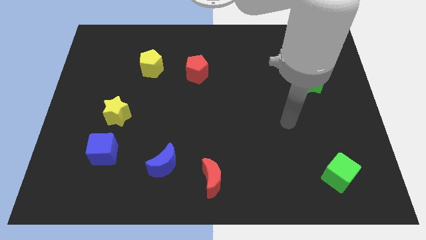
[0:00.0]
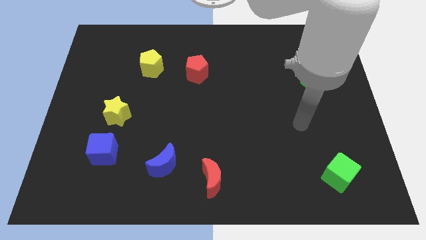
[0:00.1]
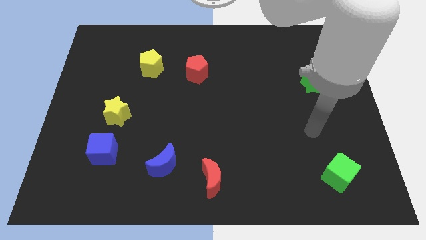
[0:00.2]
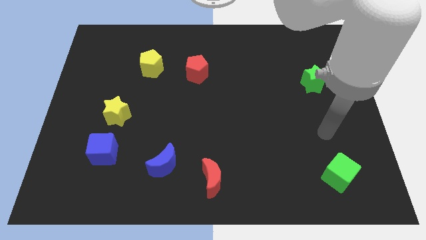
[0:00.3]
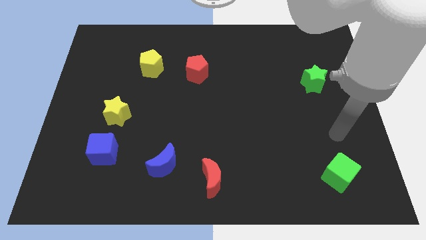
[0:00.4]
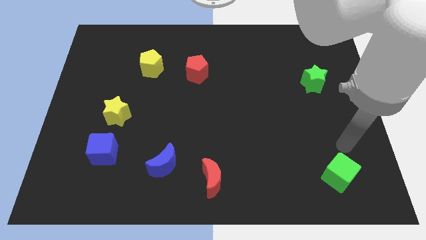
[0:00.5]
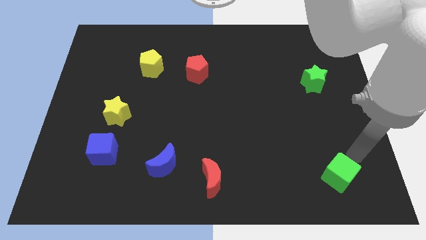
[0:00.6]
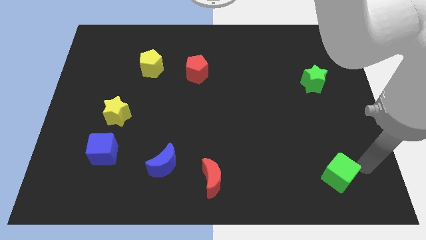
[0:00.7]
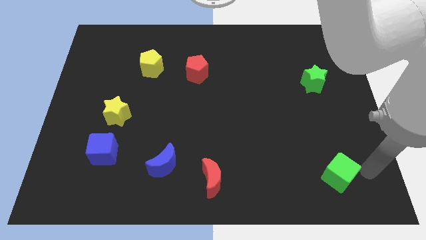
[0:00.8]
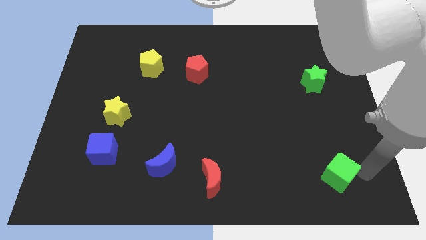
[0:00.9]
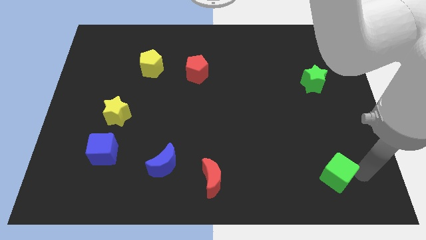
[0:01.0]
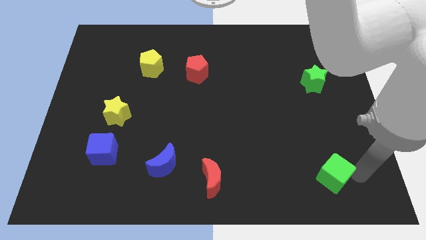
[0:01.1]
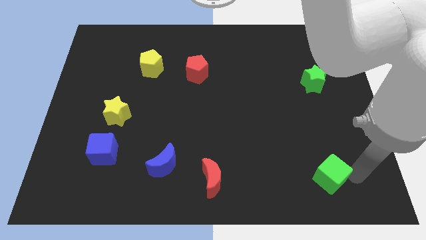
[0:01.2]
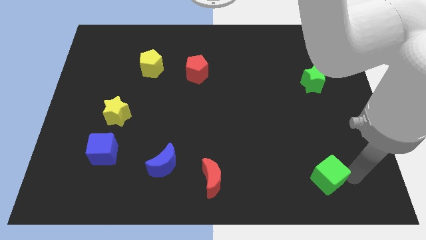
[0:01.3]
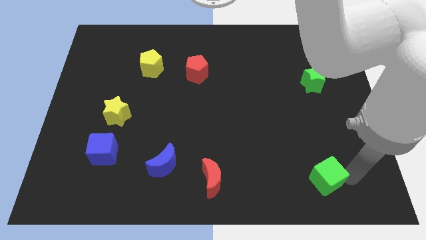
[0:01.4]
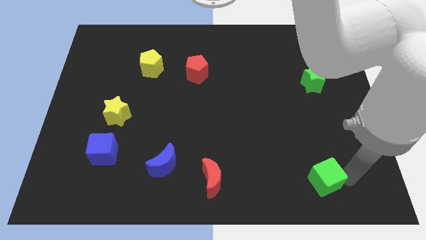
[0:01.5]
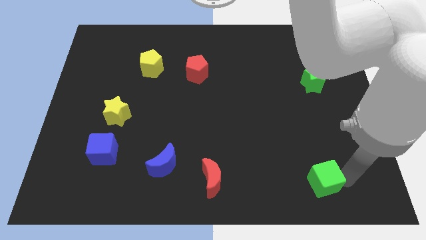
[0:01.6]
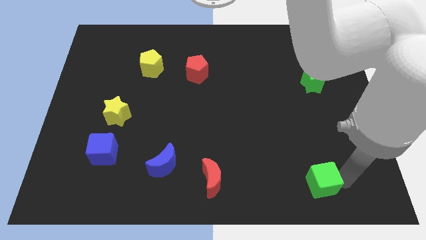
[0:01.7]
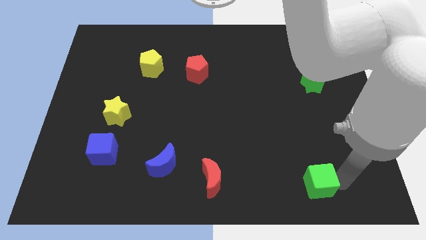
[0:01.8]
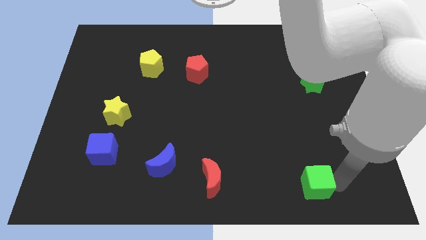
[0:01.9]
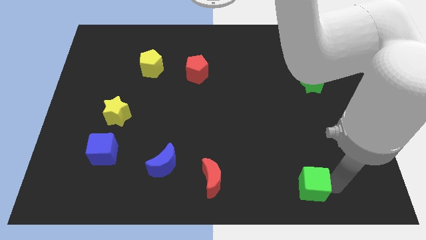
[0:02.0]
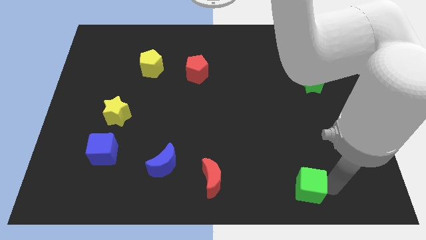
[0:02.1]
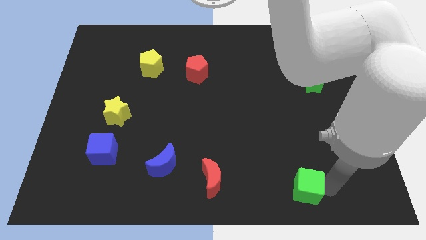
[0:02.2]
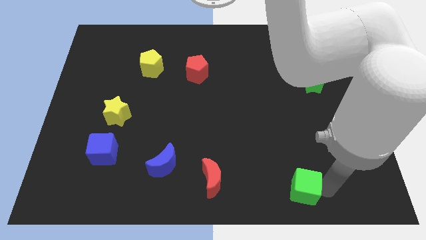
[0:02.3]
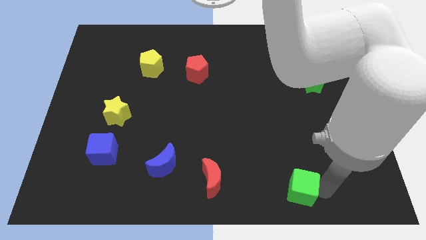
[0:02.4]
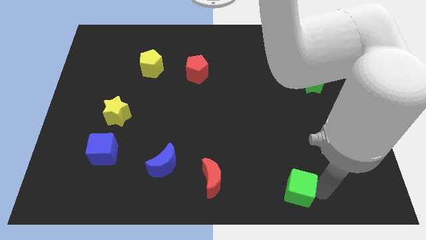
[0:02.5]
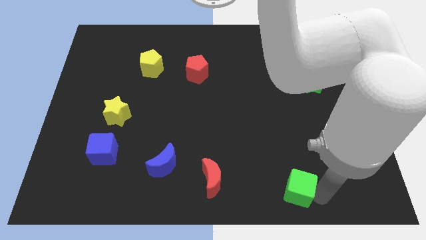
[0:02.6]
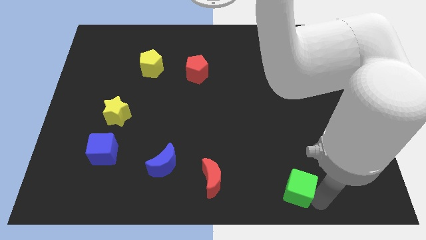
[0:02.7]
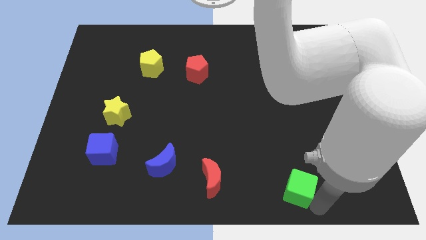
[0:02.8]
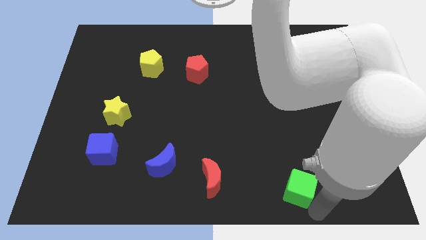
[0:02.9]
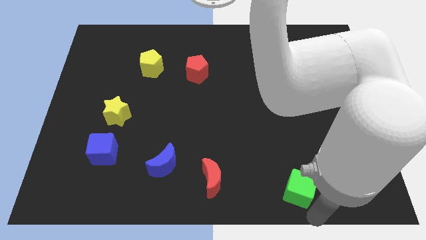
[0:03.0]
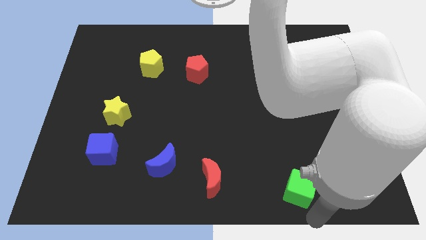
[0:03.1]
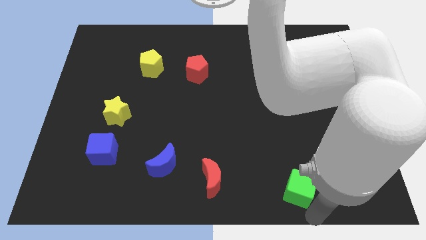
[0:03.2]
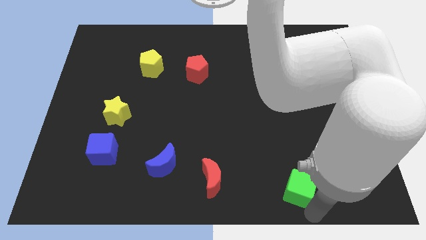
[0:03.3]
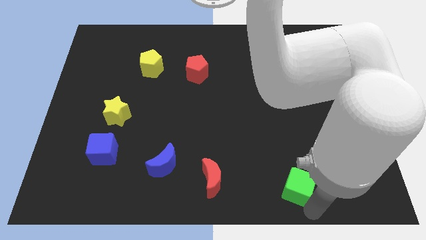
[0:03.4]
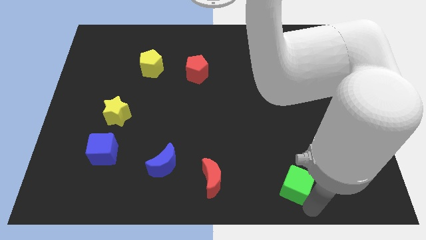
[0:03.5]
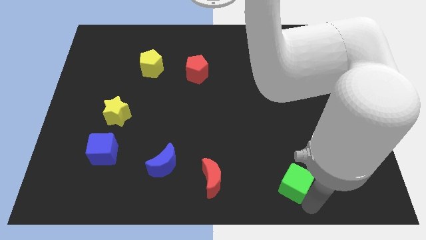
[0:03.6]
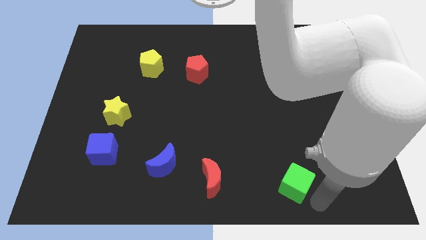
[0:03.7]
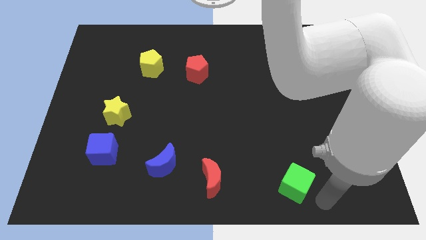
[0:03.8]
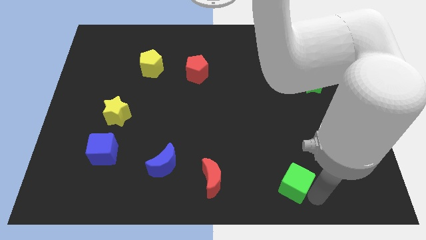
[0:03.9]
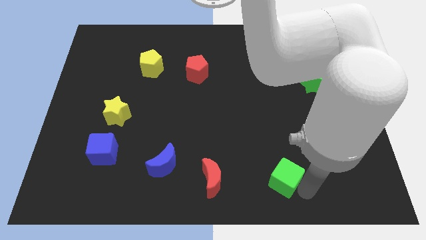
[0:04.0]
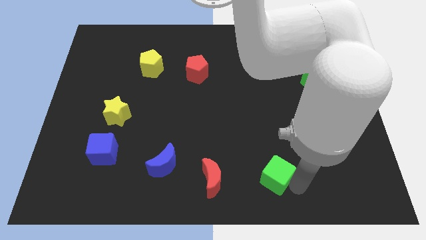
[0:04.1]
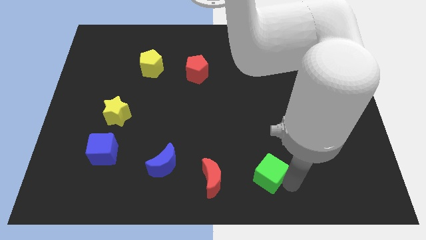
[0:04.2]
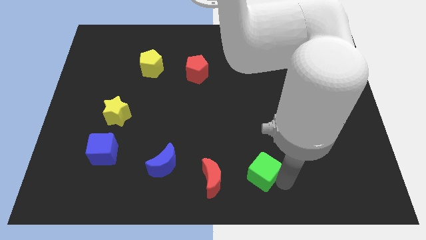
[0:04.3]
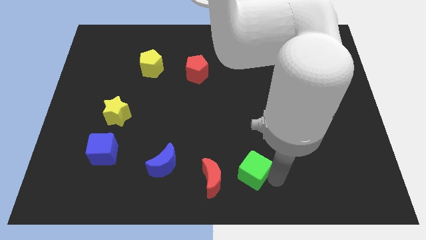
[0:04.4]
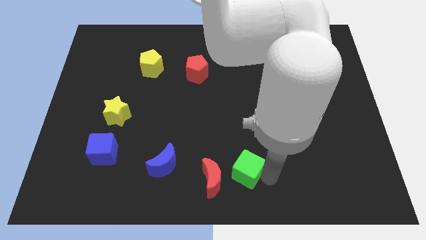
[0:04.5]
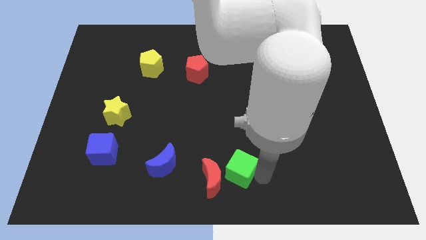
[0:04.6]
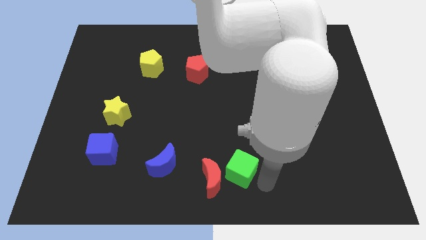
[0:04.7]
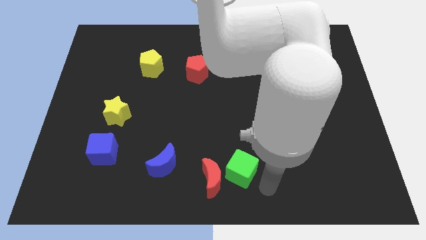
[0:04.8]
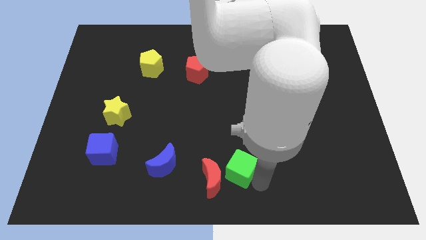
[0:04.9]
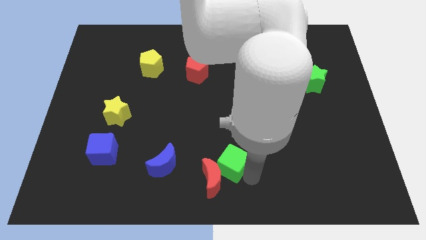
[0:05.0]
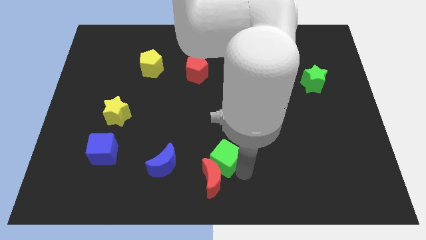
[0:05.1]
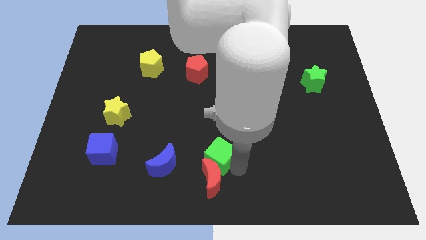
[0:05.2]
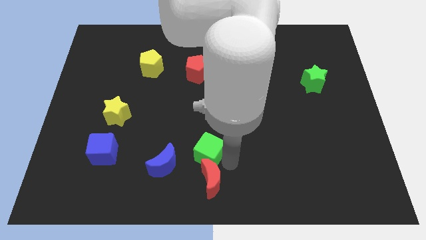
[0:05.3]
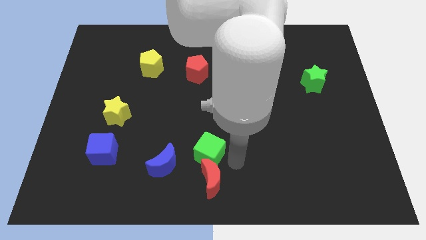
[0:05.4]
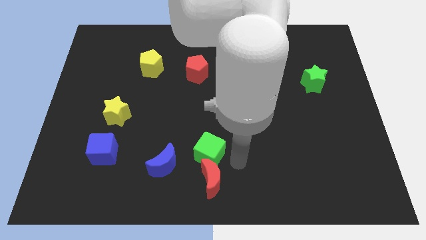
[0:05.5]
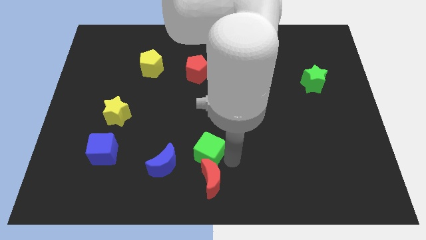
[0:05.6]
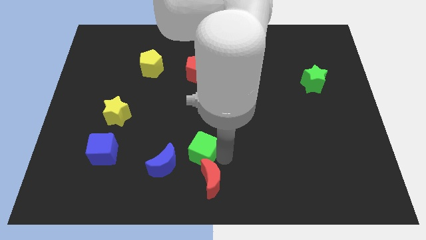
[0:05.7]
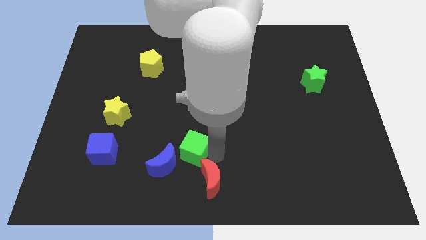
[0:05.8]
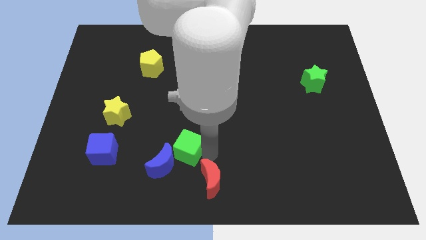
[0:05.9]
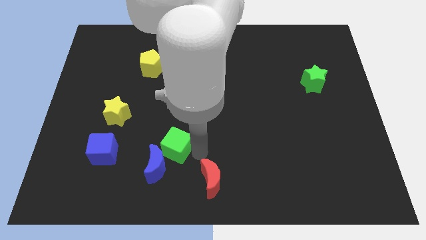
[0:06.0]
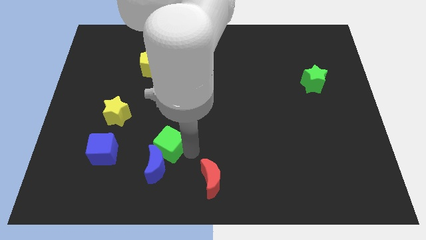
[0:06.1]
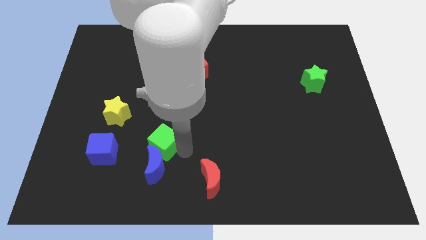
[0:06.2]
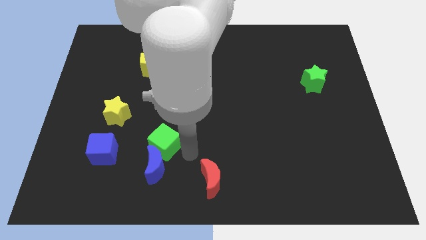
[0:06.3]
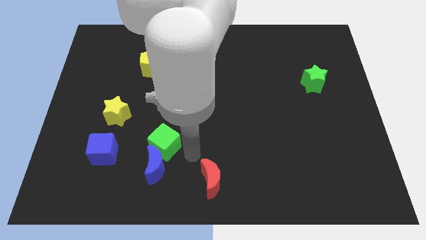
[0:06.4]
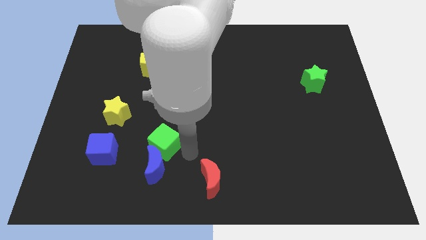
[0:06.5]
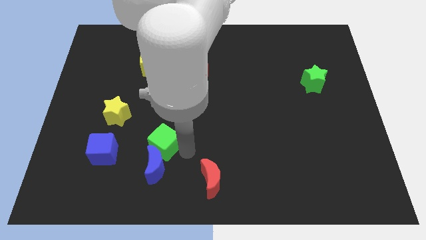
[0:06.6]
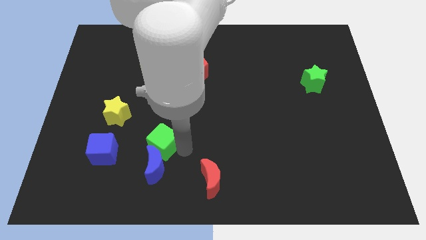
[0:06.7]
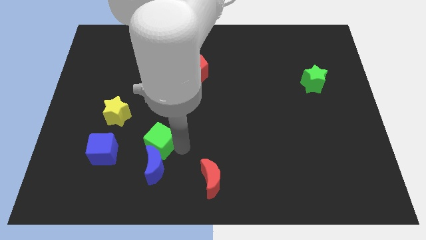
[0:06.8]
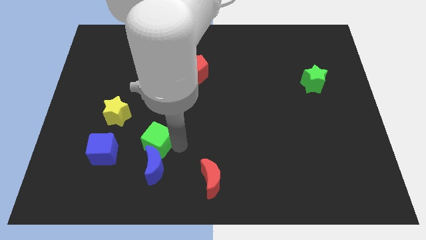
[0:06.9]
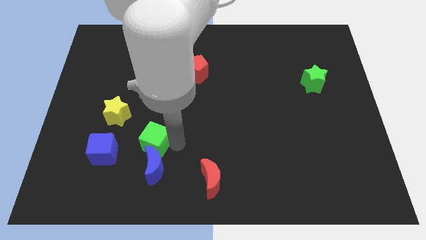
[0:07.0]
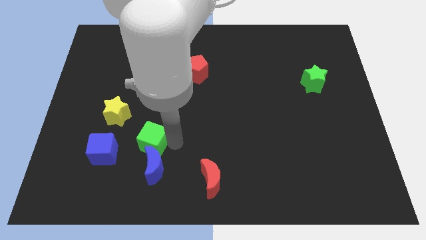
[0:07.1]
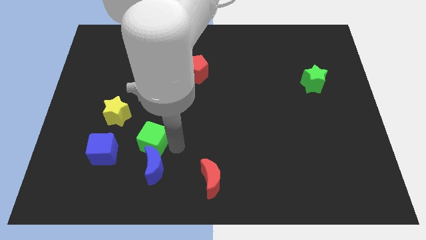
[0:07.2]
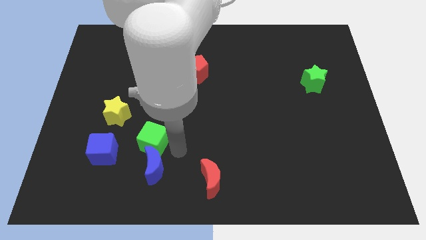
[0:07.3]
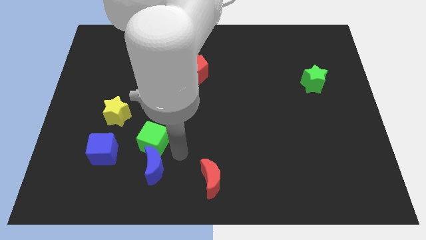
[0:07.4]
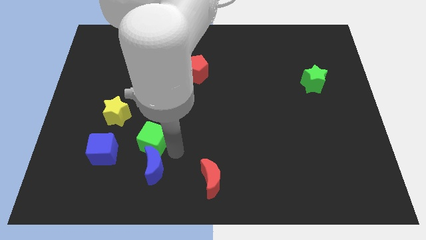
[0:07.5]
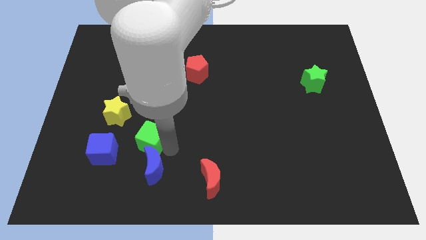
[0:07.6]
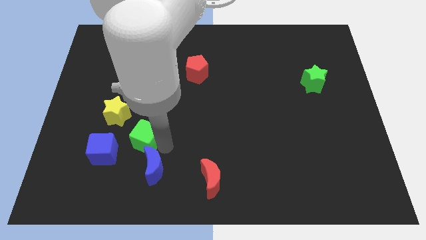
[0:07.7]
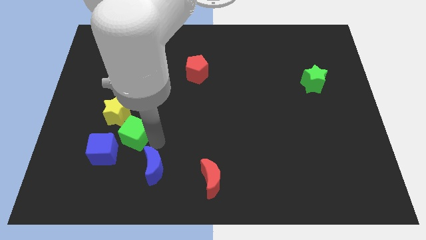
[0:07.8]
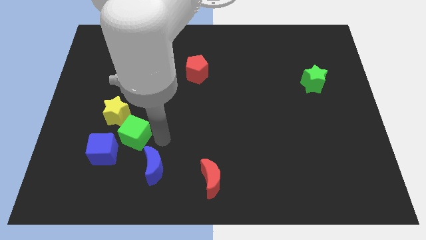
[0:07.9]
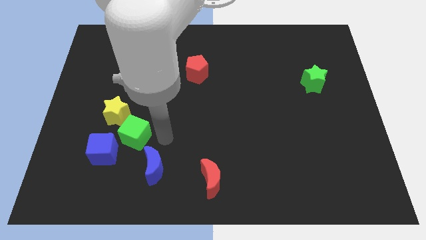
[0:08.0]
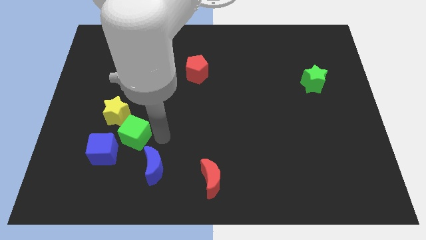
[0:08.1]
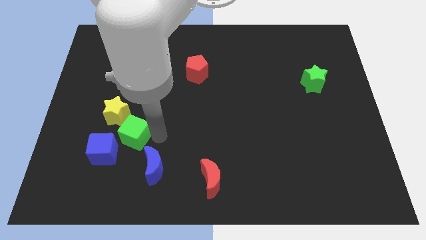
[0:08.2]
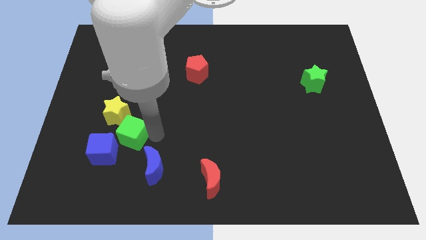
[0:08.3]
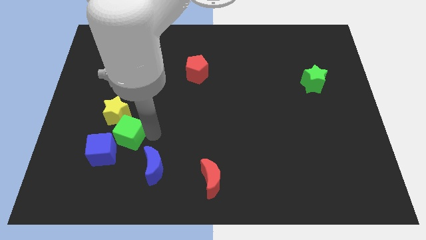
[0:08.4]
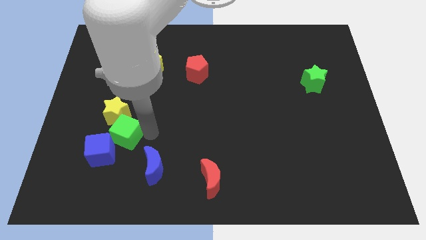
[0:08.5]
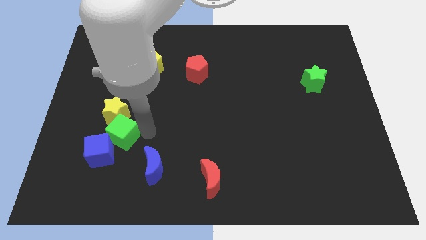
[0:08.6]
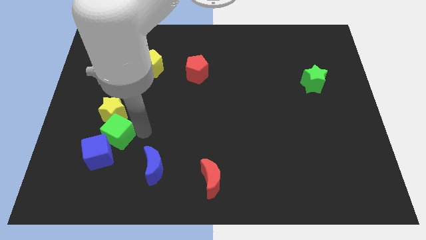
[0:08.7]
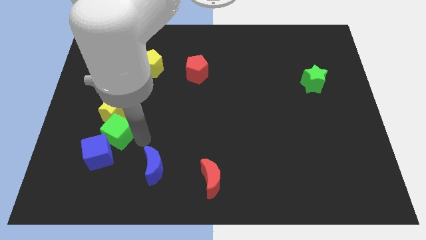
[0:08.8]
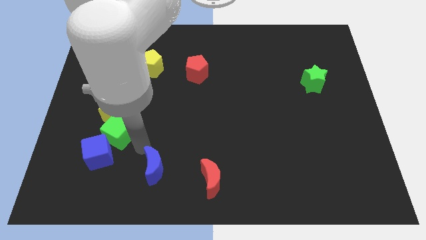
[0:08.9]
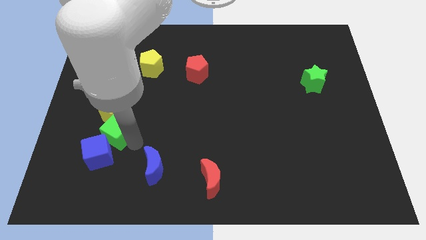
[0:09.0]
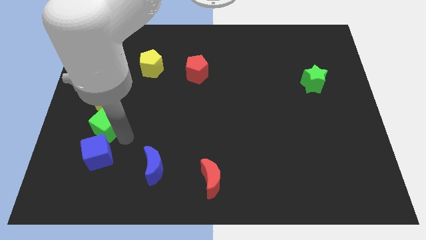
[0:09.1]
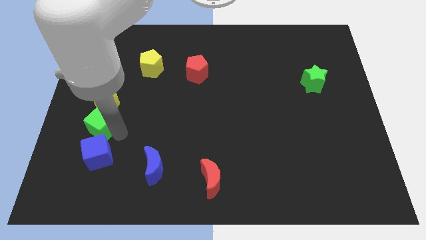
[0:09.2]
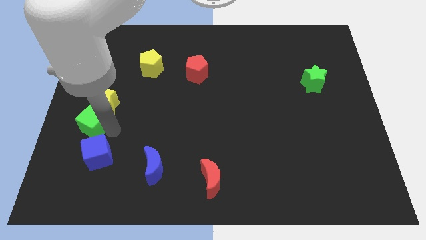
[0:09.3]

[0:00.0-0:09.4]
push the green cube to the left side of the board
